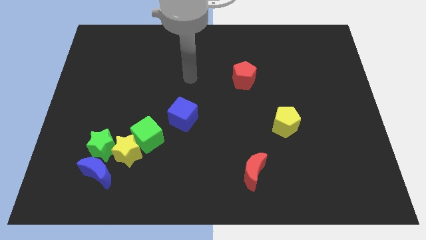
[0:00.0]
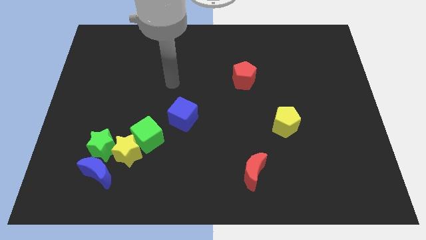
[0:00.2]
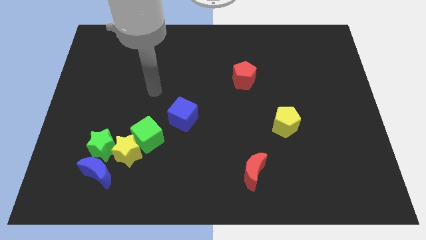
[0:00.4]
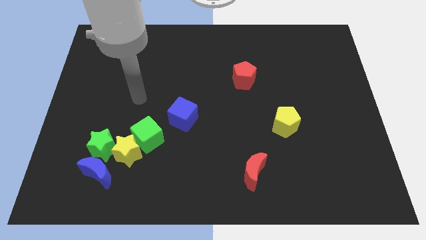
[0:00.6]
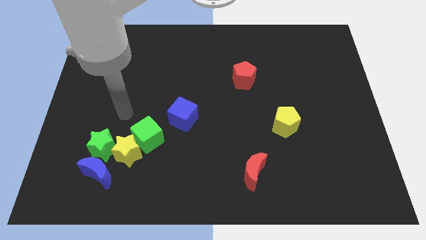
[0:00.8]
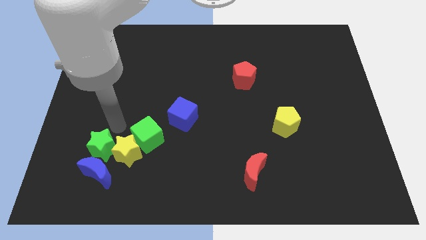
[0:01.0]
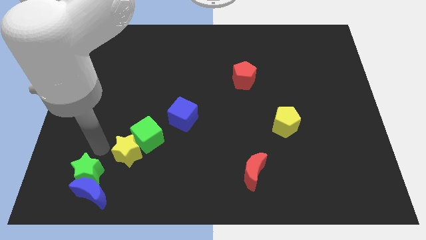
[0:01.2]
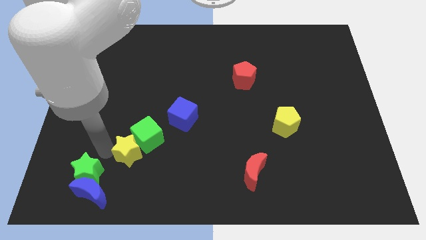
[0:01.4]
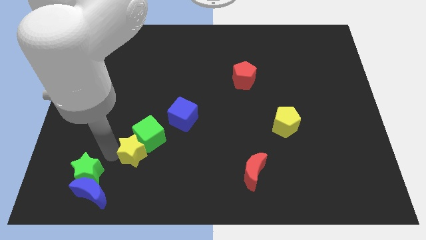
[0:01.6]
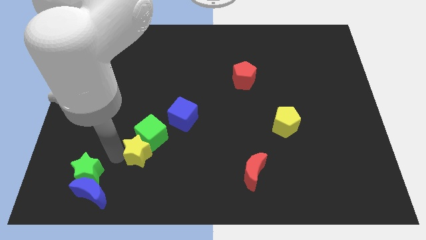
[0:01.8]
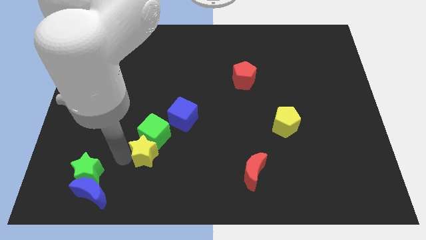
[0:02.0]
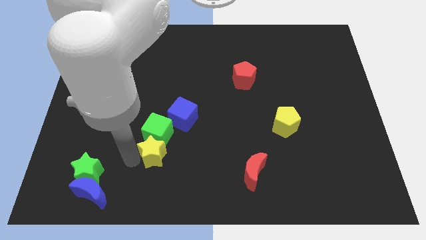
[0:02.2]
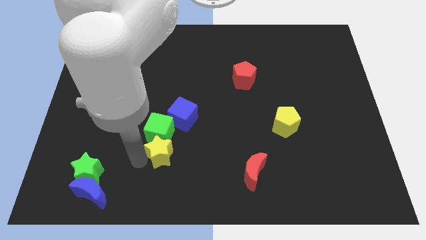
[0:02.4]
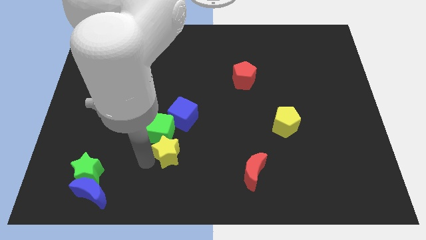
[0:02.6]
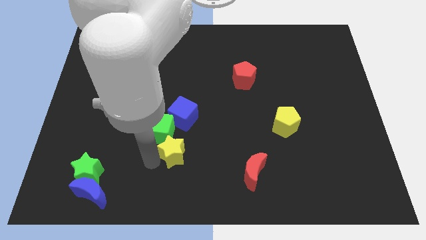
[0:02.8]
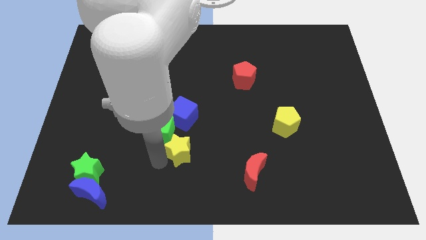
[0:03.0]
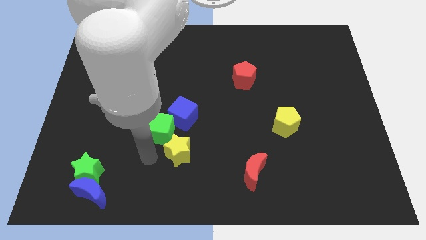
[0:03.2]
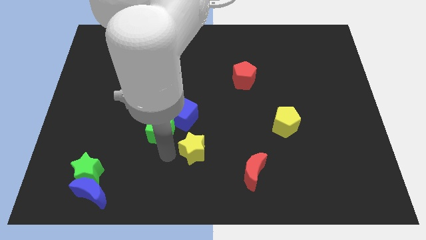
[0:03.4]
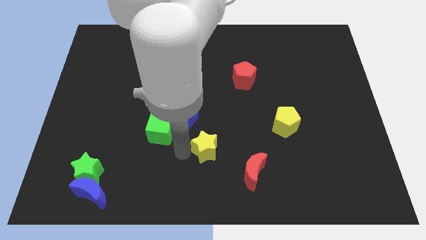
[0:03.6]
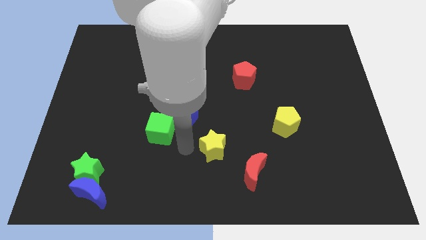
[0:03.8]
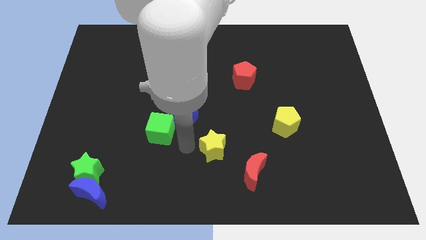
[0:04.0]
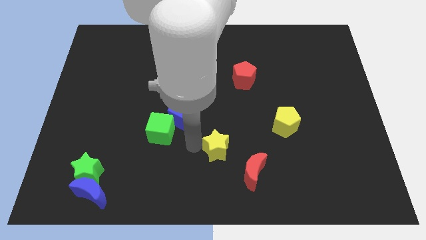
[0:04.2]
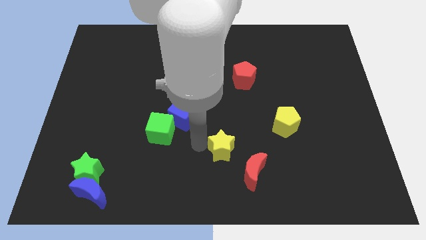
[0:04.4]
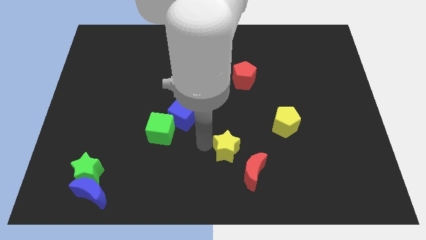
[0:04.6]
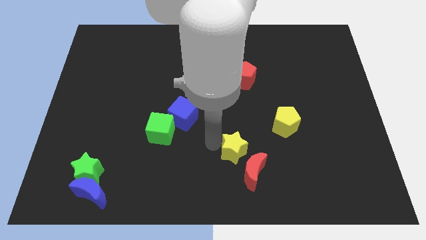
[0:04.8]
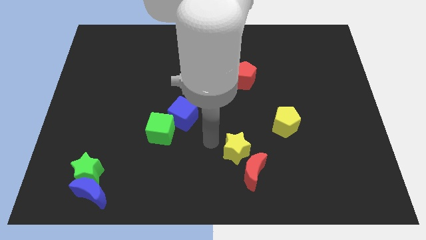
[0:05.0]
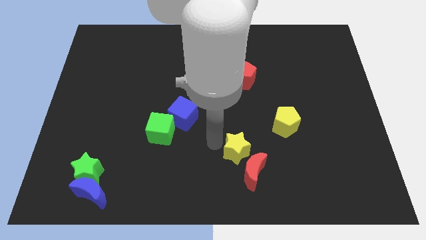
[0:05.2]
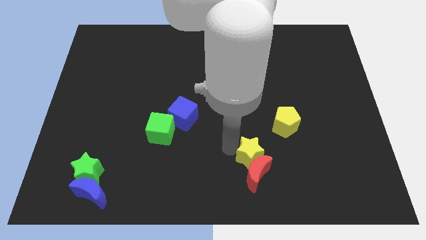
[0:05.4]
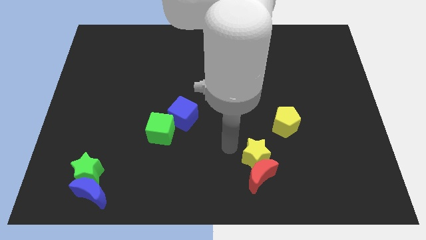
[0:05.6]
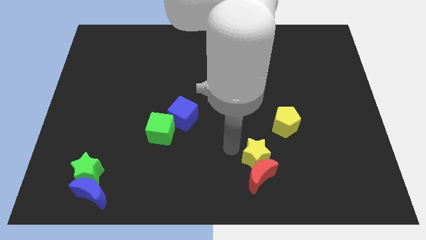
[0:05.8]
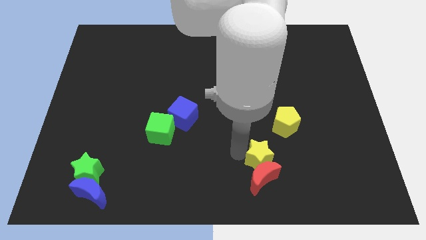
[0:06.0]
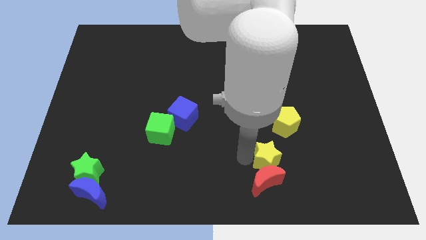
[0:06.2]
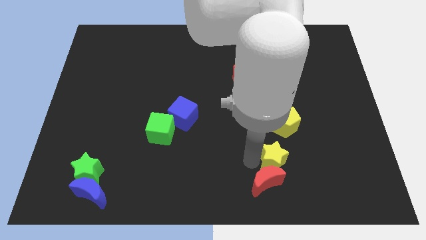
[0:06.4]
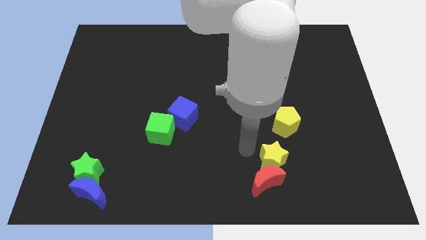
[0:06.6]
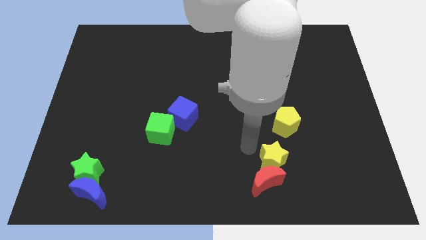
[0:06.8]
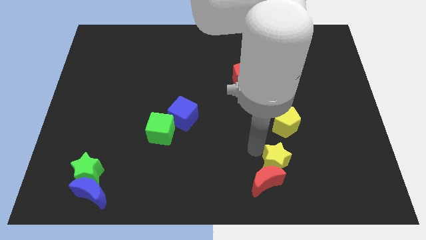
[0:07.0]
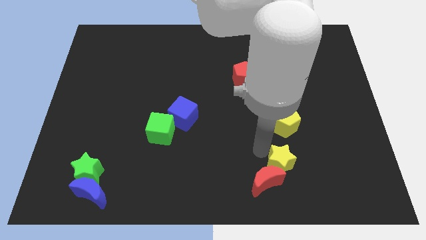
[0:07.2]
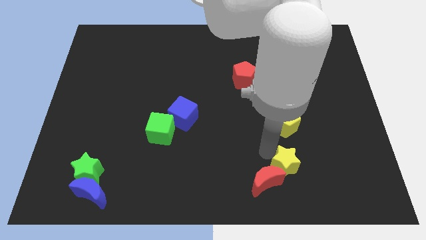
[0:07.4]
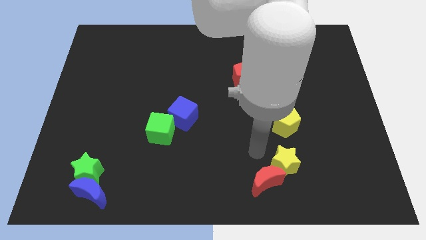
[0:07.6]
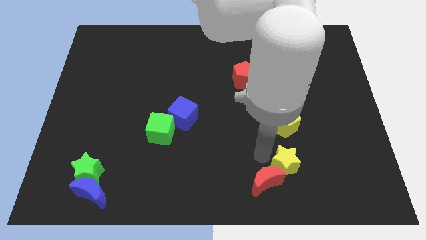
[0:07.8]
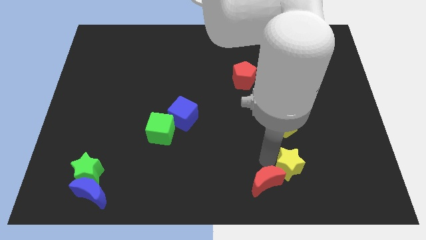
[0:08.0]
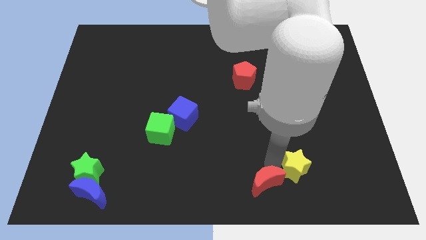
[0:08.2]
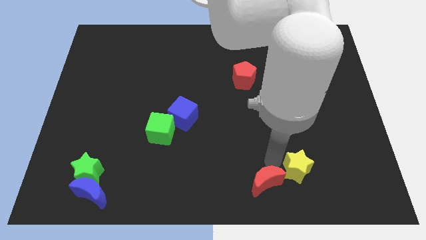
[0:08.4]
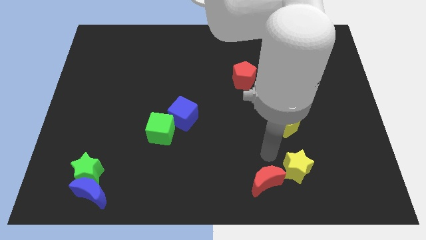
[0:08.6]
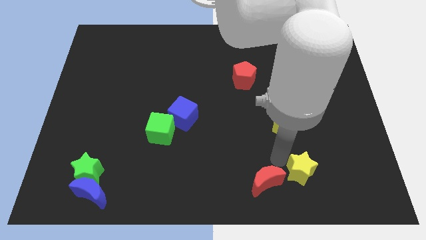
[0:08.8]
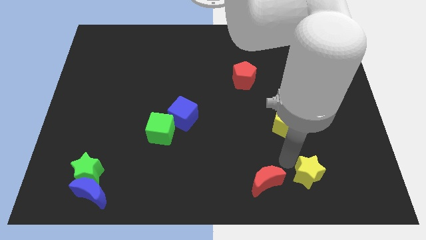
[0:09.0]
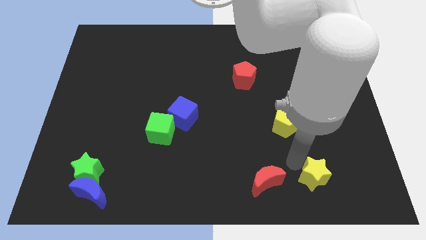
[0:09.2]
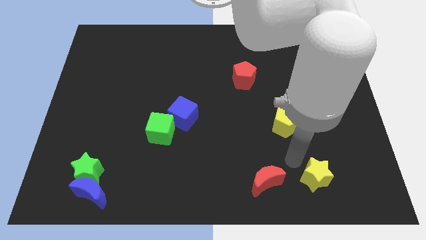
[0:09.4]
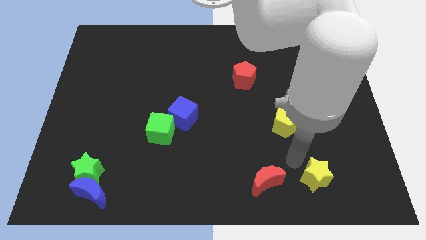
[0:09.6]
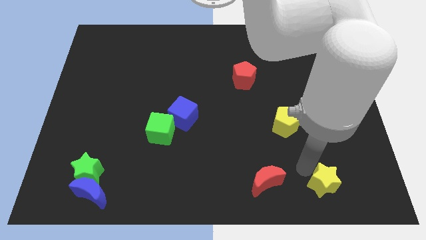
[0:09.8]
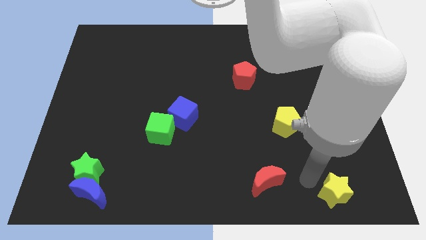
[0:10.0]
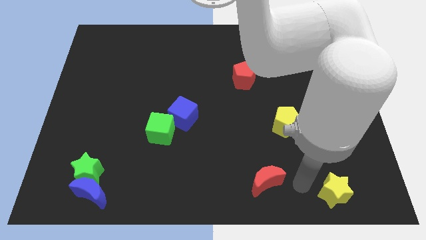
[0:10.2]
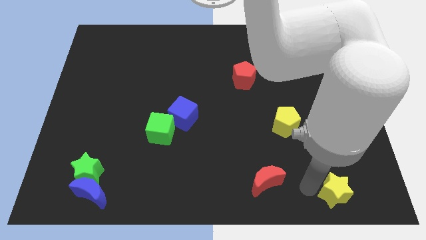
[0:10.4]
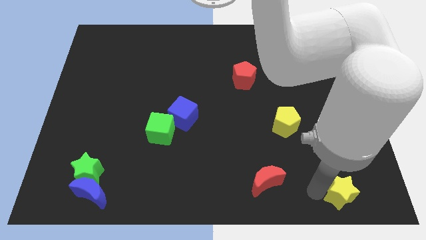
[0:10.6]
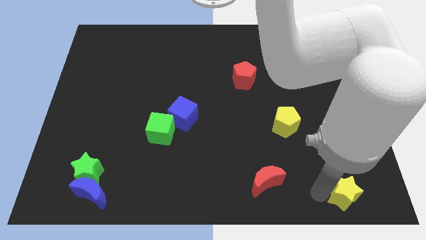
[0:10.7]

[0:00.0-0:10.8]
push the yellow star to the bottom right
